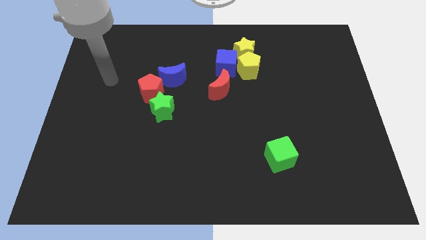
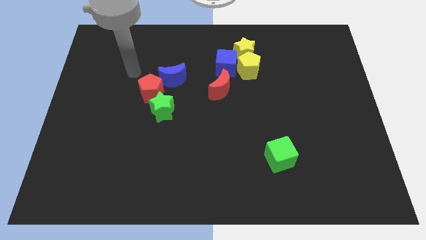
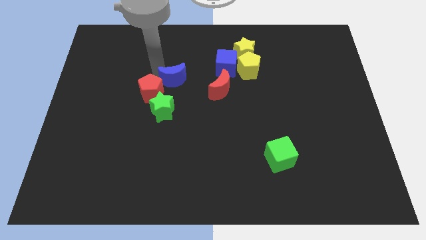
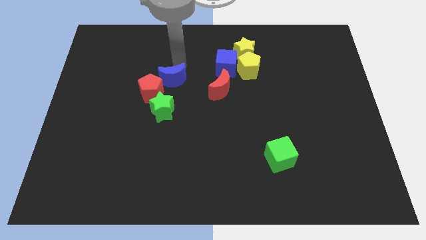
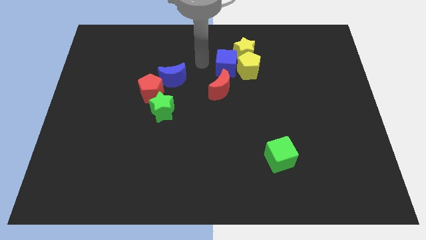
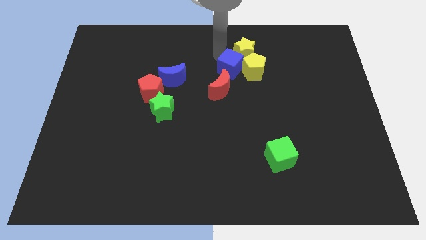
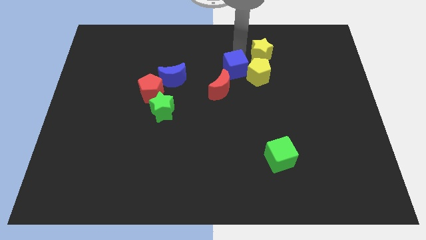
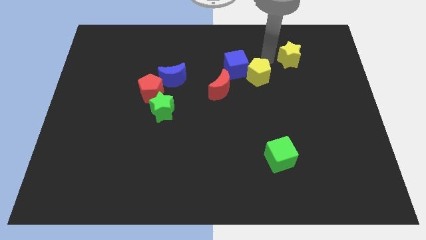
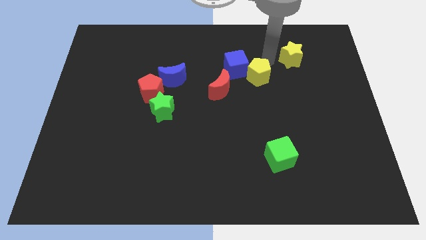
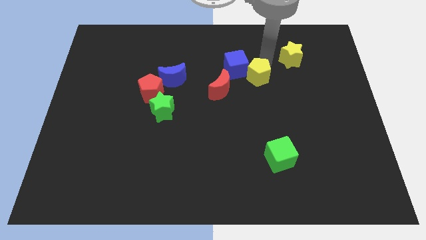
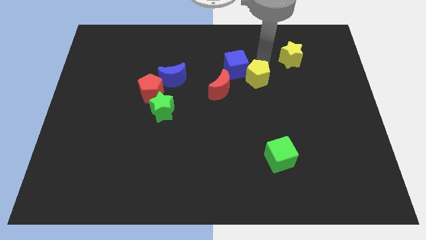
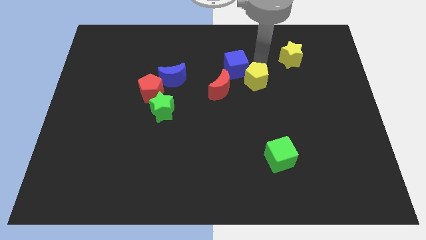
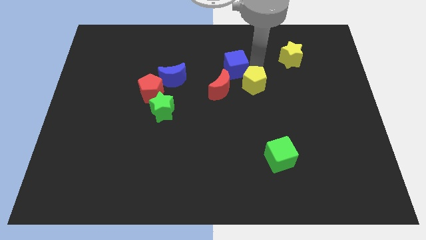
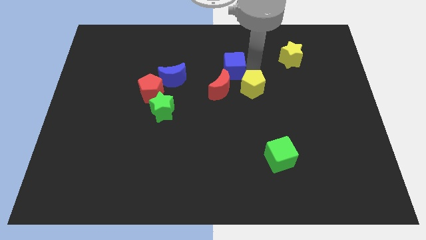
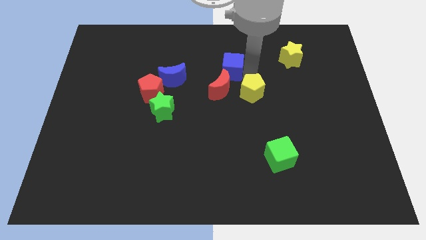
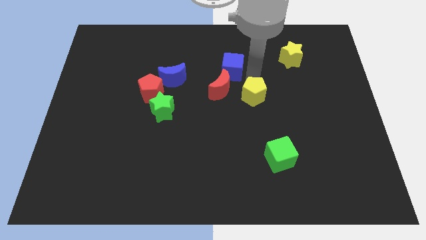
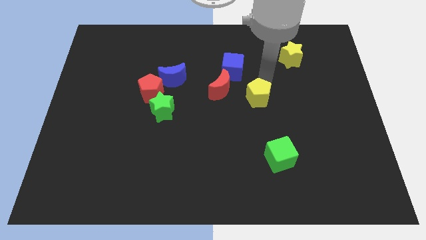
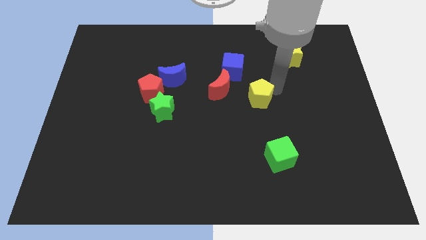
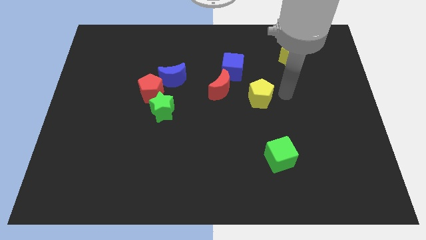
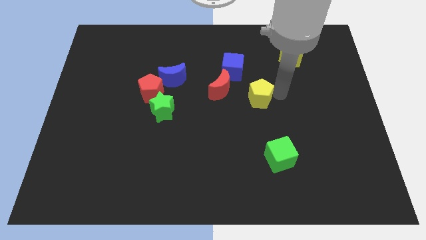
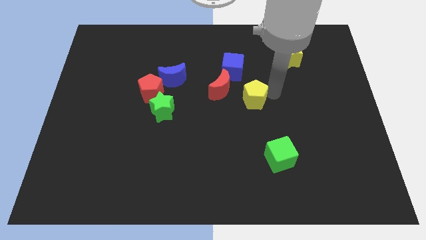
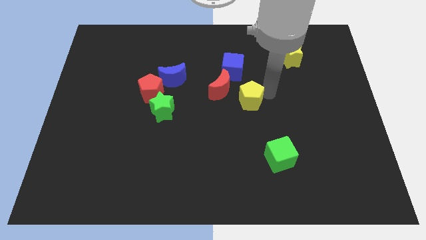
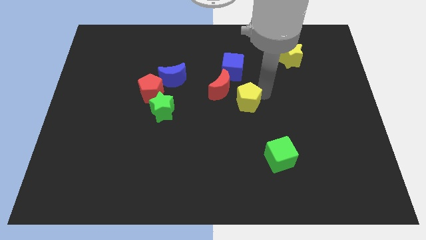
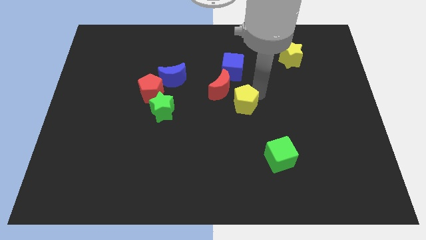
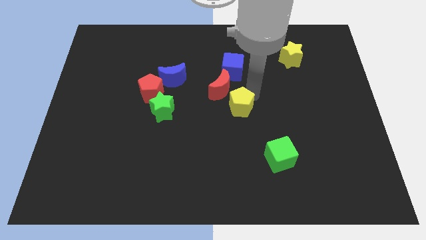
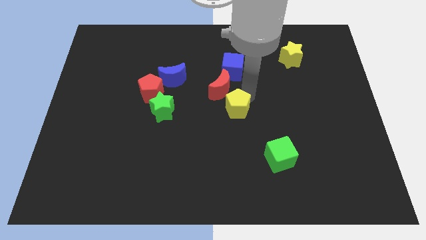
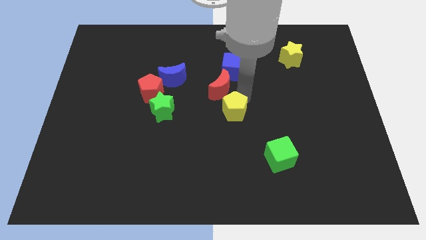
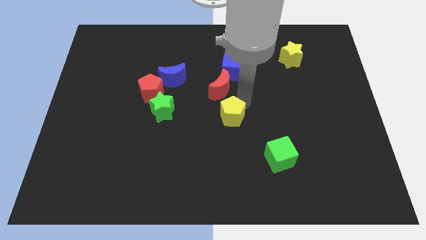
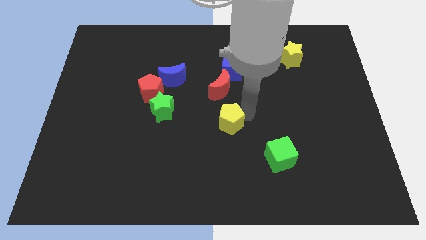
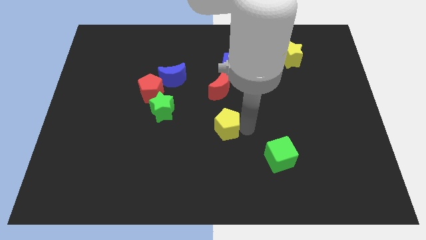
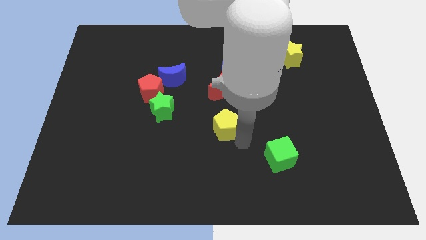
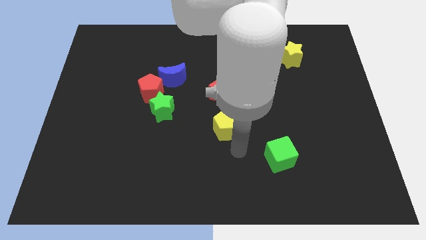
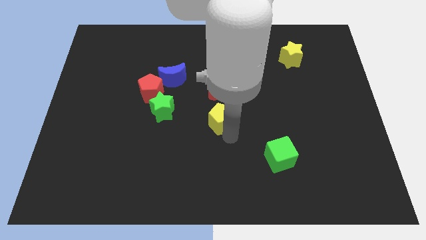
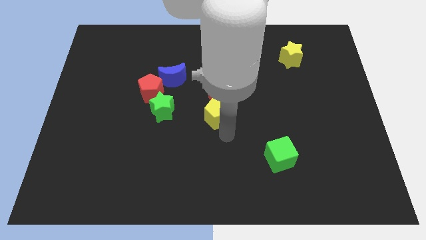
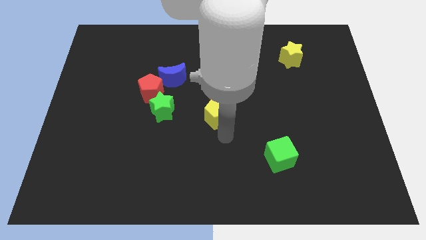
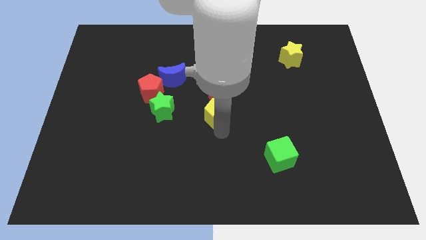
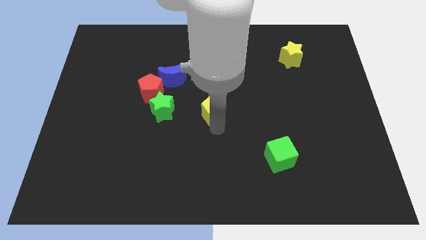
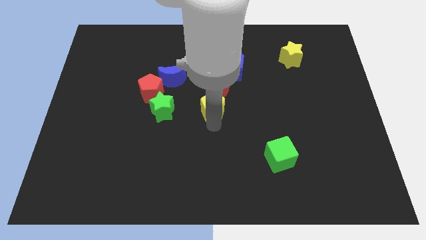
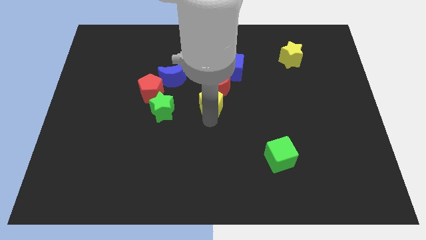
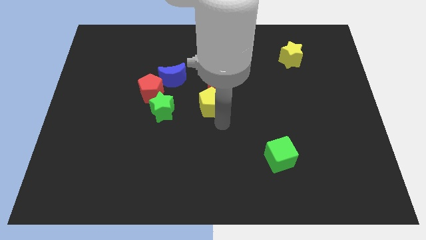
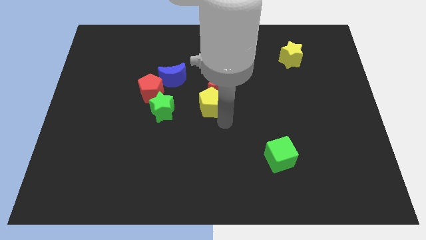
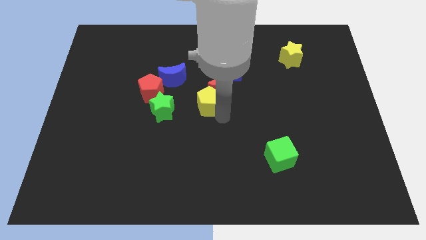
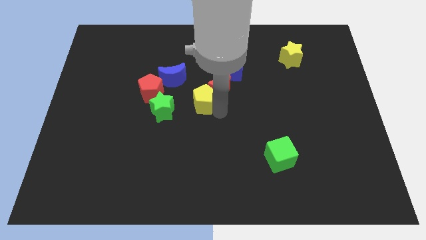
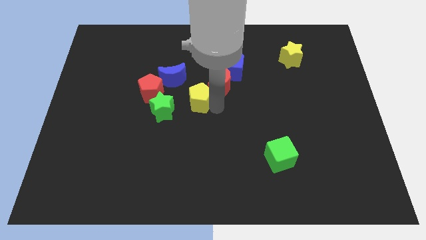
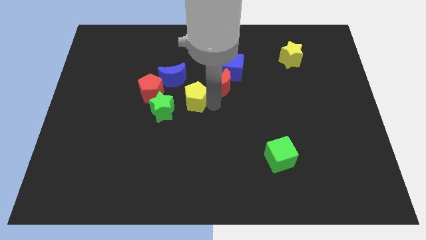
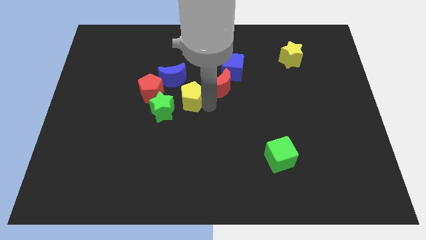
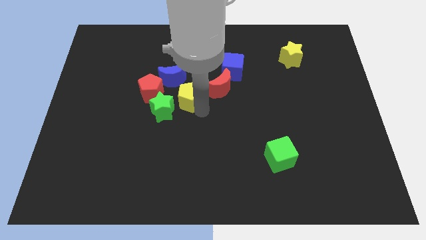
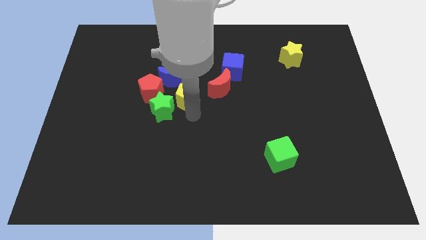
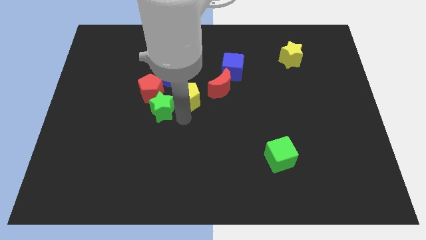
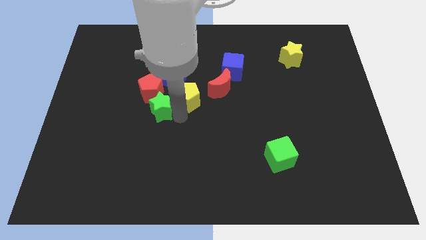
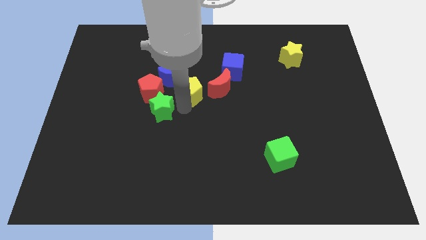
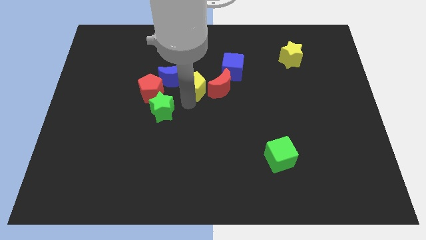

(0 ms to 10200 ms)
put the yellow pentagon next to the blue moon
